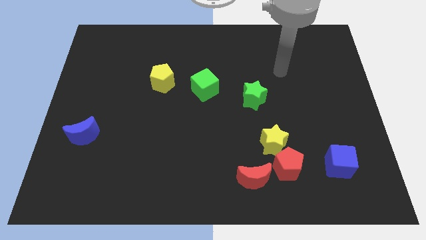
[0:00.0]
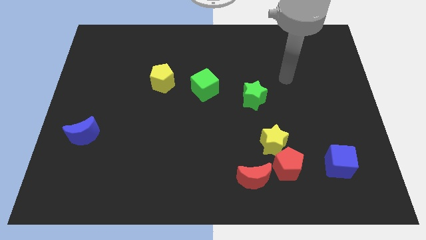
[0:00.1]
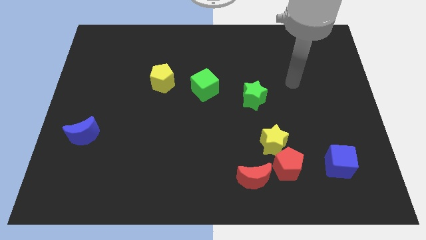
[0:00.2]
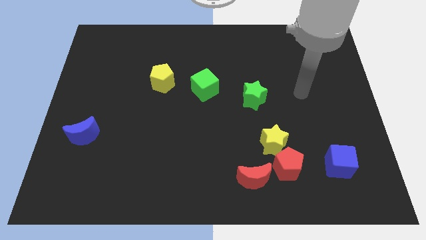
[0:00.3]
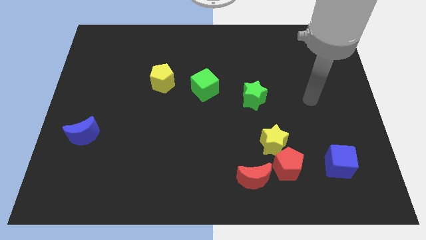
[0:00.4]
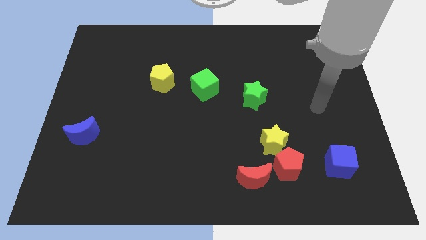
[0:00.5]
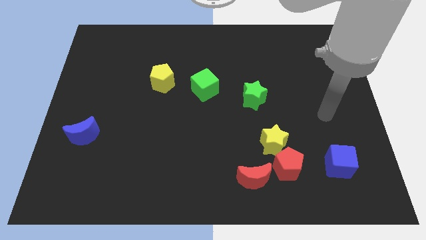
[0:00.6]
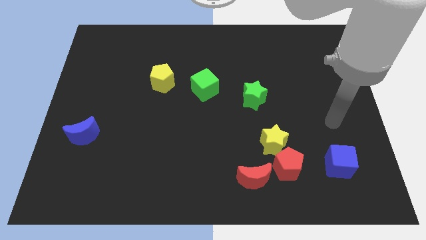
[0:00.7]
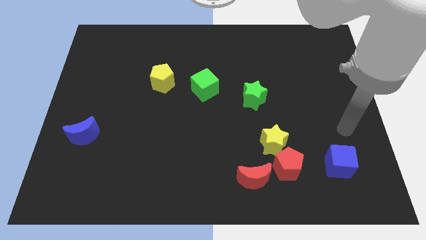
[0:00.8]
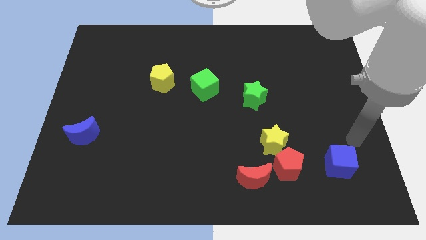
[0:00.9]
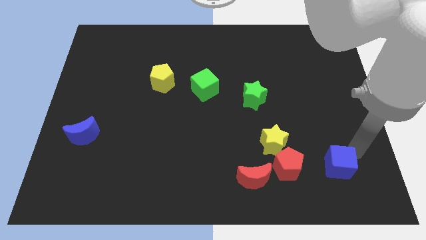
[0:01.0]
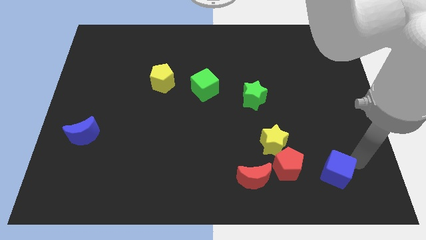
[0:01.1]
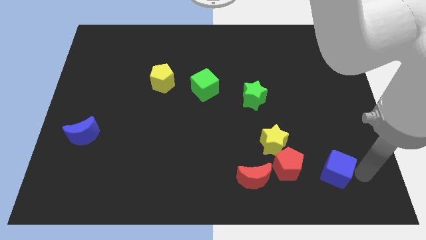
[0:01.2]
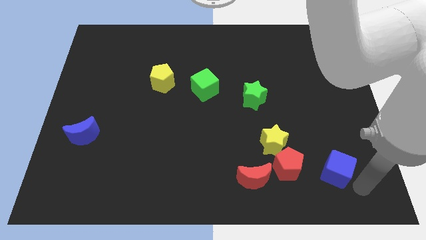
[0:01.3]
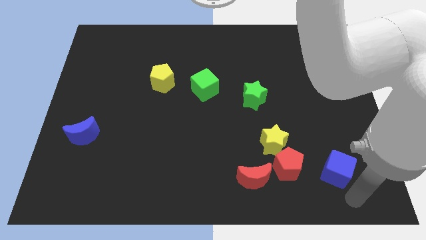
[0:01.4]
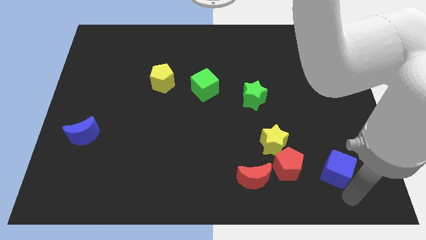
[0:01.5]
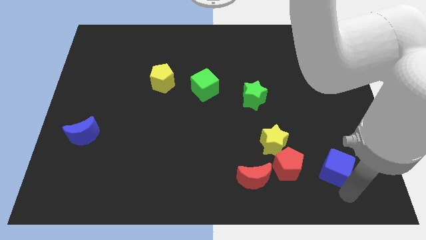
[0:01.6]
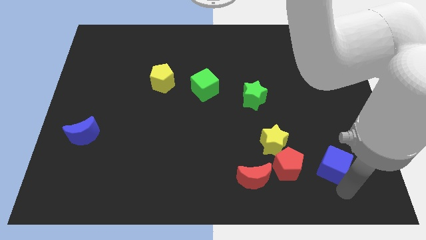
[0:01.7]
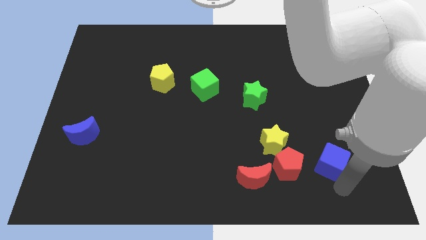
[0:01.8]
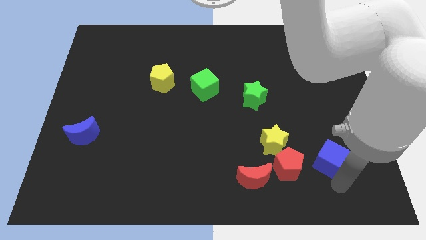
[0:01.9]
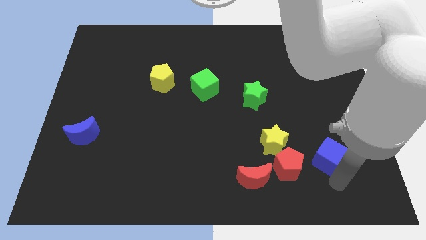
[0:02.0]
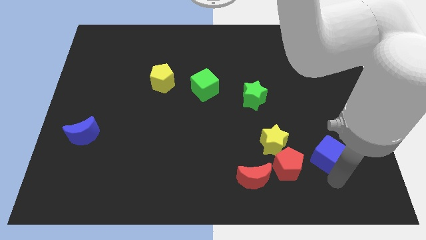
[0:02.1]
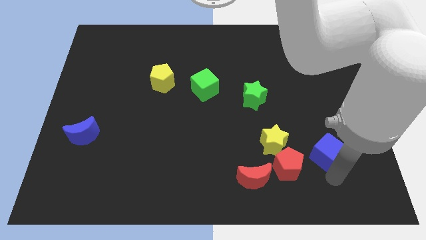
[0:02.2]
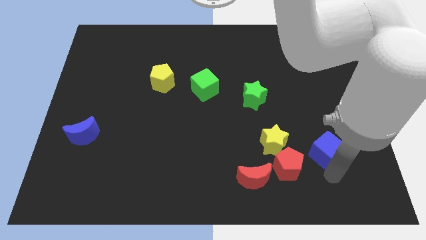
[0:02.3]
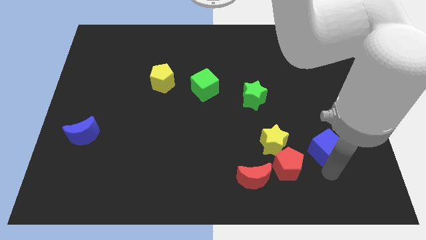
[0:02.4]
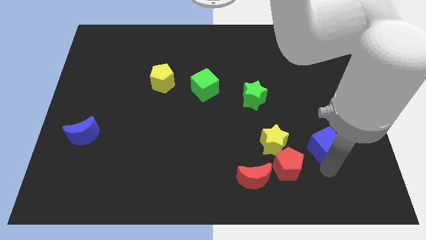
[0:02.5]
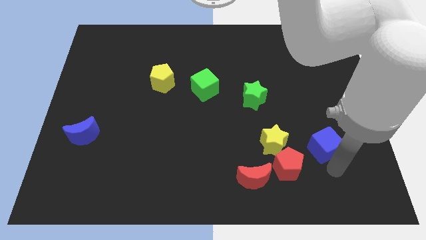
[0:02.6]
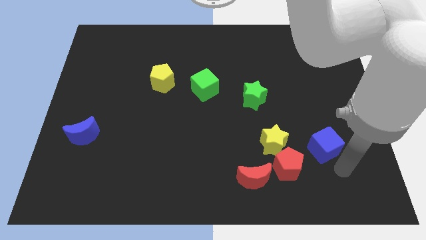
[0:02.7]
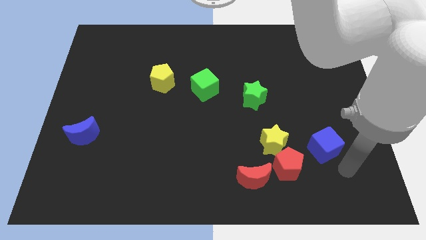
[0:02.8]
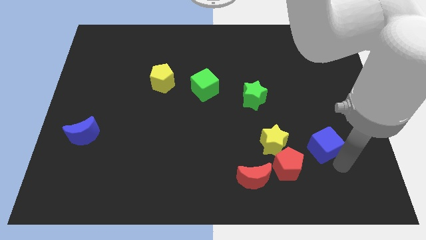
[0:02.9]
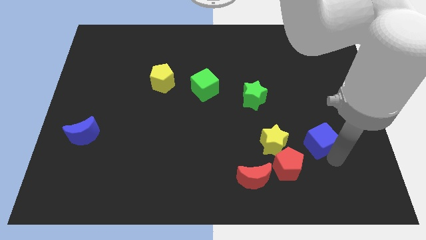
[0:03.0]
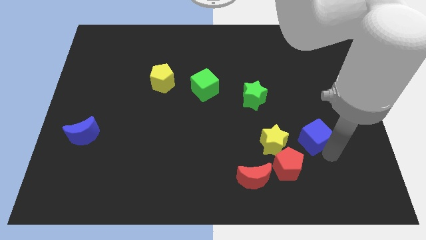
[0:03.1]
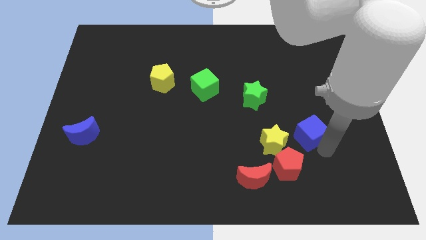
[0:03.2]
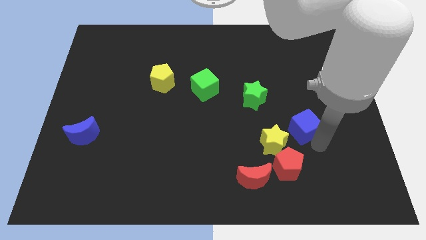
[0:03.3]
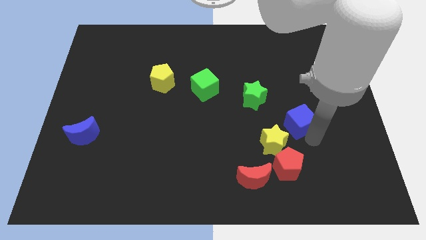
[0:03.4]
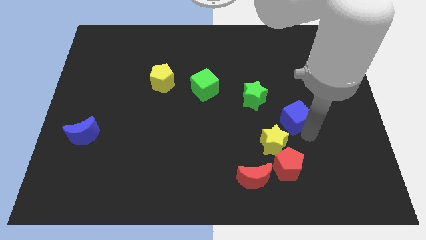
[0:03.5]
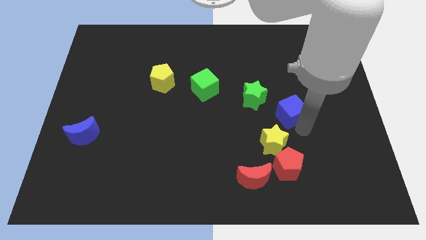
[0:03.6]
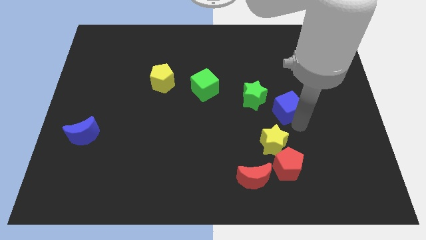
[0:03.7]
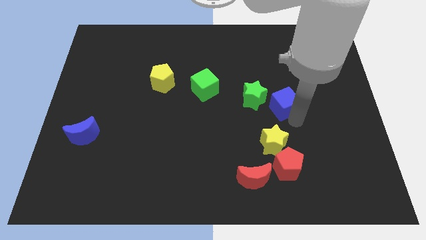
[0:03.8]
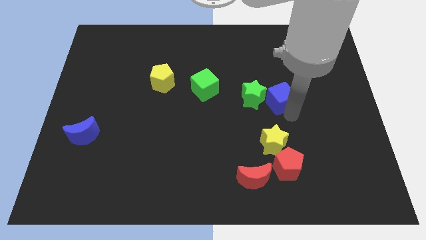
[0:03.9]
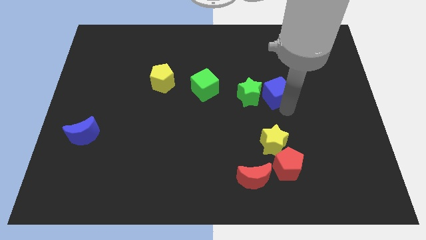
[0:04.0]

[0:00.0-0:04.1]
slide the blue cube up and left diagonally

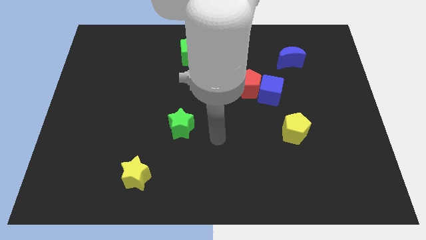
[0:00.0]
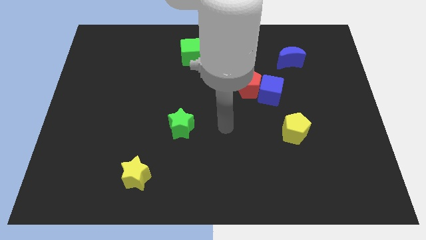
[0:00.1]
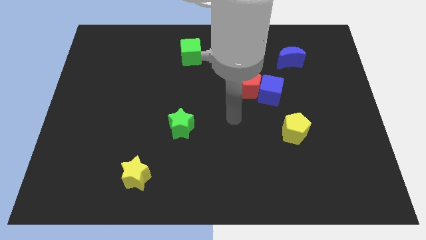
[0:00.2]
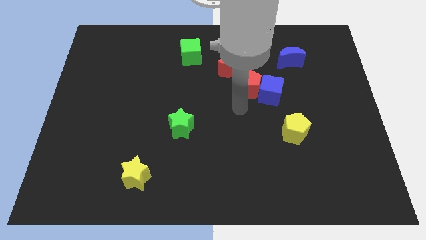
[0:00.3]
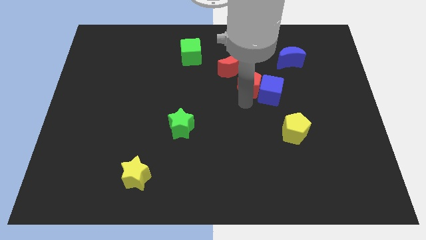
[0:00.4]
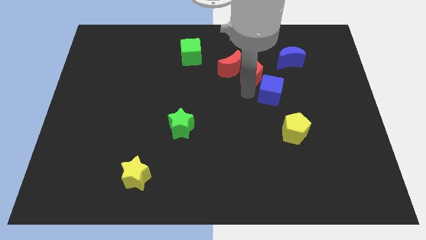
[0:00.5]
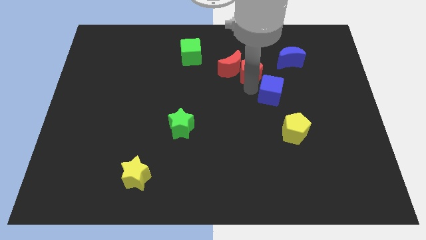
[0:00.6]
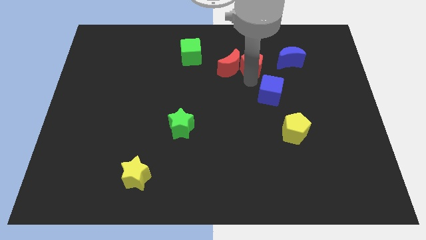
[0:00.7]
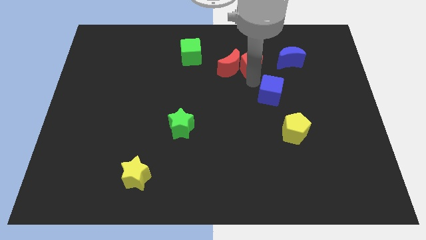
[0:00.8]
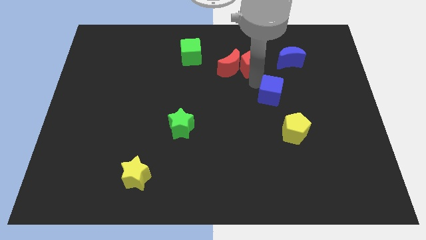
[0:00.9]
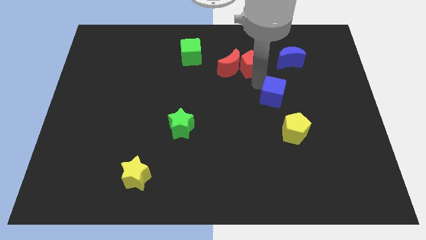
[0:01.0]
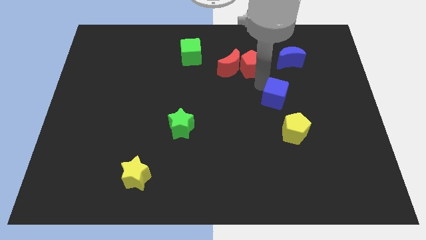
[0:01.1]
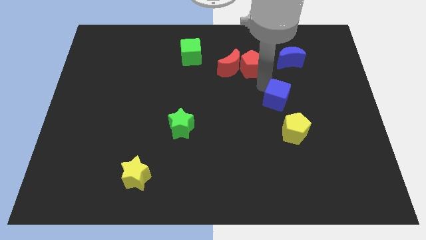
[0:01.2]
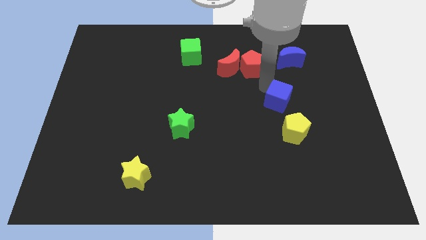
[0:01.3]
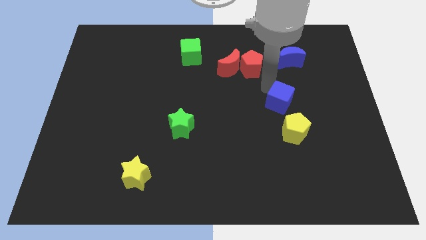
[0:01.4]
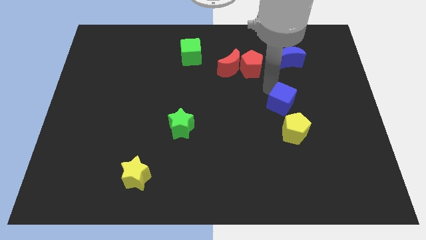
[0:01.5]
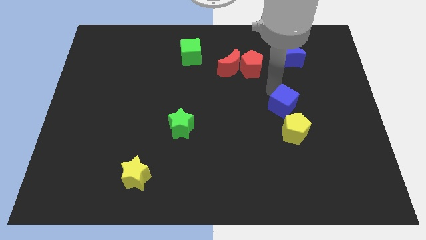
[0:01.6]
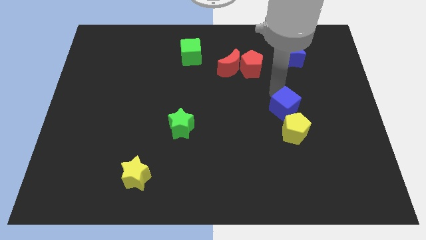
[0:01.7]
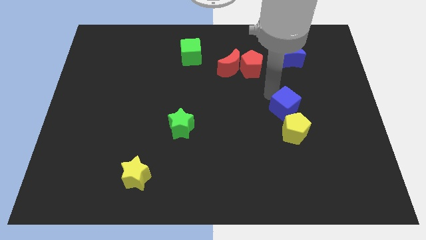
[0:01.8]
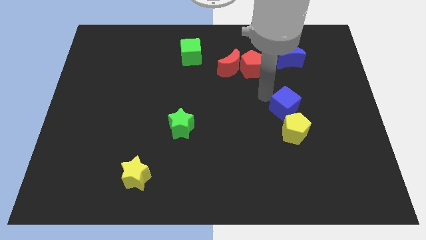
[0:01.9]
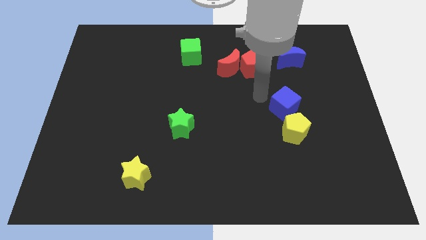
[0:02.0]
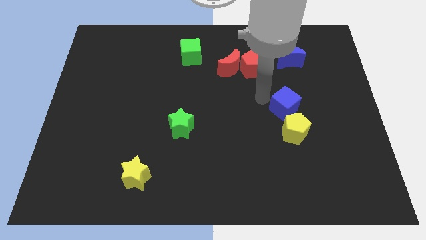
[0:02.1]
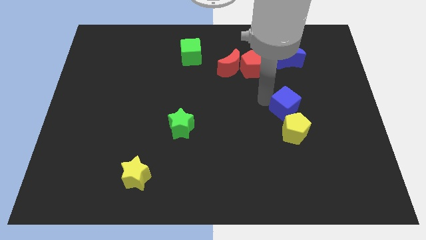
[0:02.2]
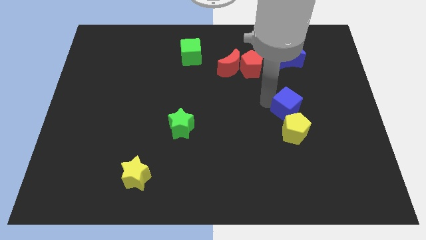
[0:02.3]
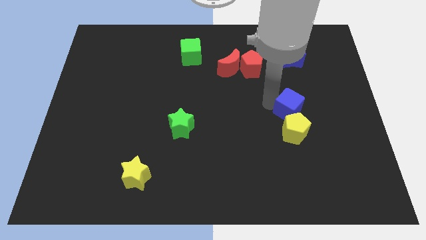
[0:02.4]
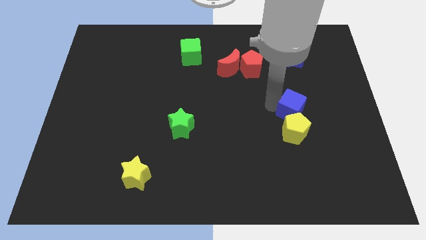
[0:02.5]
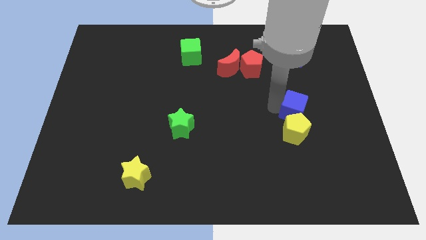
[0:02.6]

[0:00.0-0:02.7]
slightly move the blue cube diagonally down and right

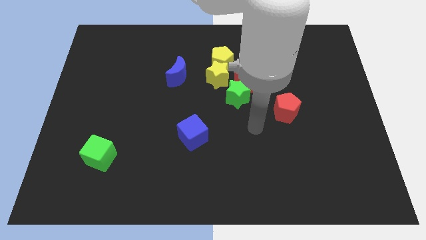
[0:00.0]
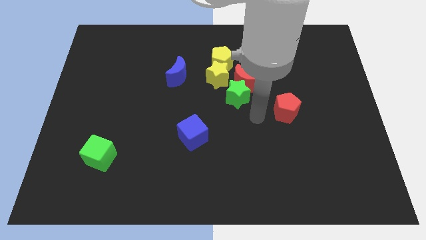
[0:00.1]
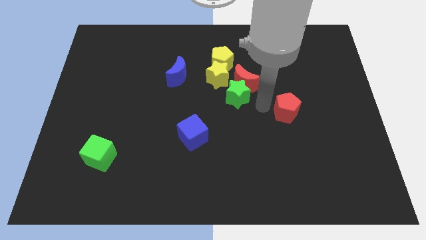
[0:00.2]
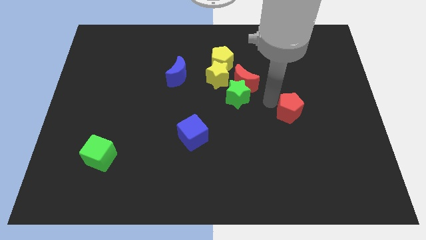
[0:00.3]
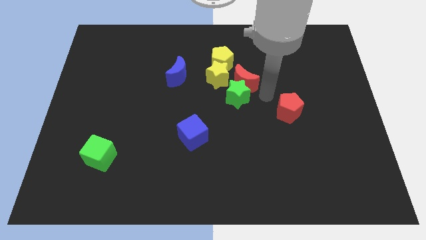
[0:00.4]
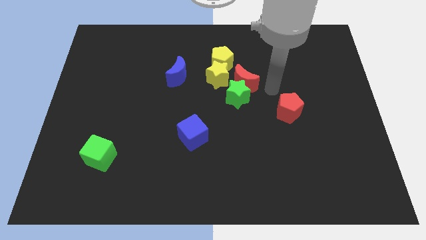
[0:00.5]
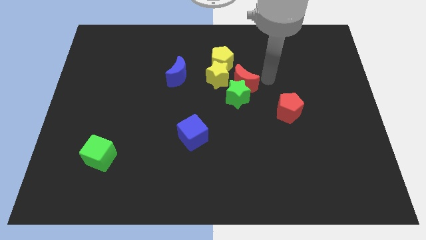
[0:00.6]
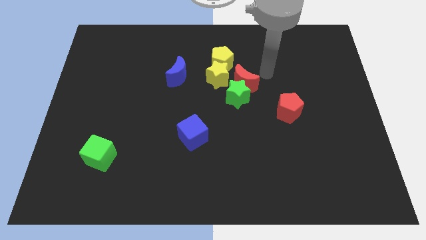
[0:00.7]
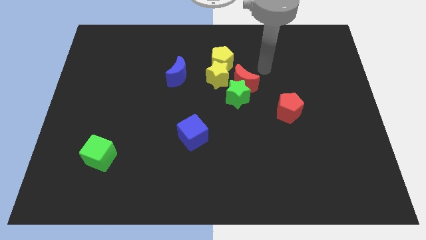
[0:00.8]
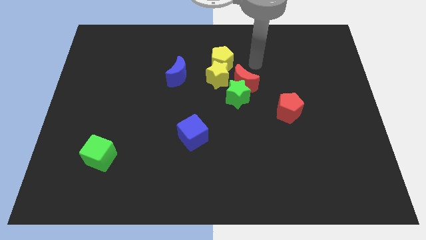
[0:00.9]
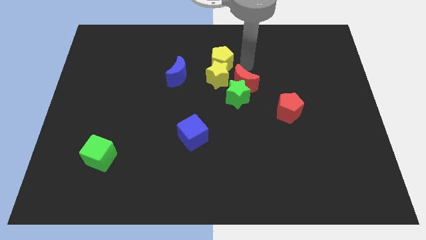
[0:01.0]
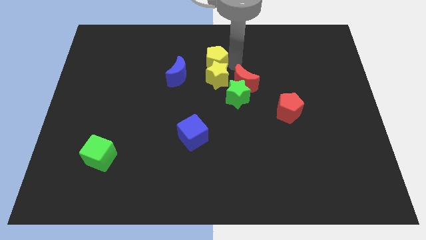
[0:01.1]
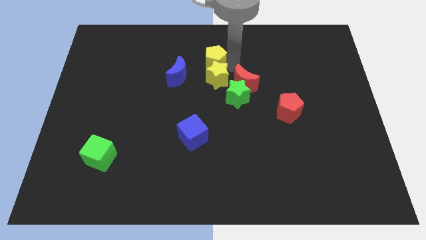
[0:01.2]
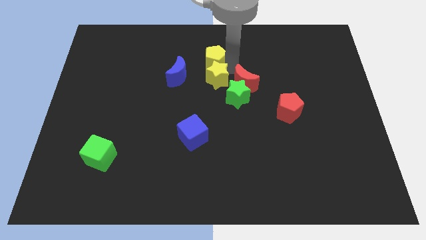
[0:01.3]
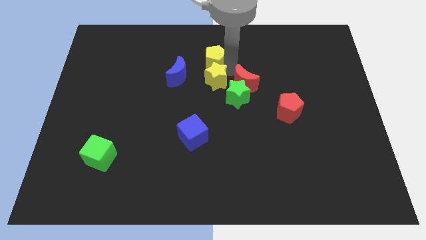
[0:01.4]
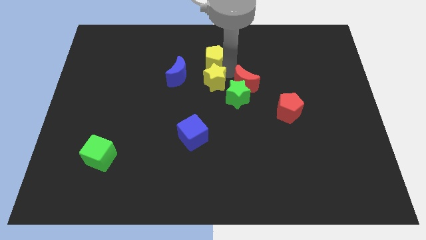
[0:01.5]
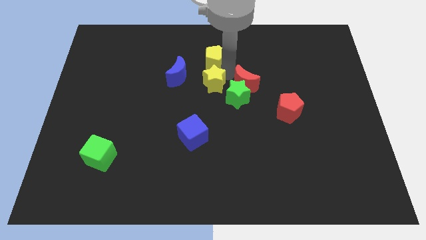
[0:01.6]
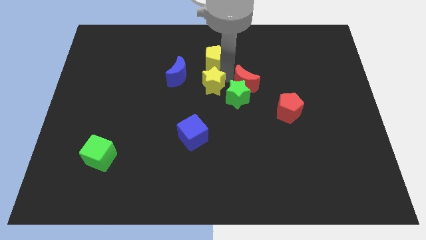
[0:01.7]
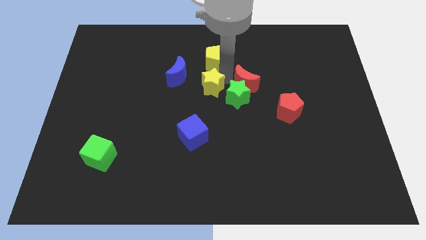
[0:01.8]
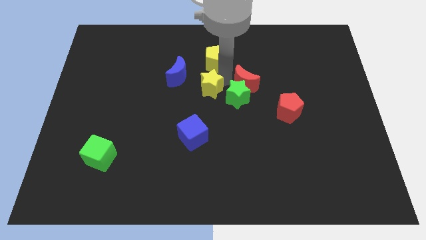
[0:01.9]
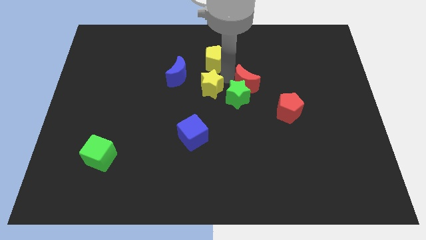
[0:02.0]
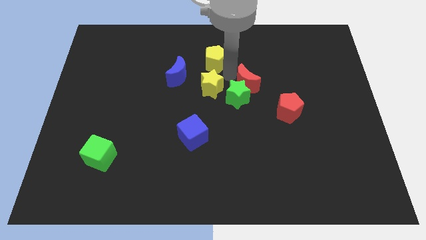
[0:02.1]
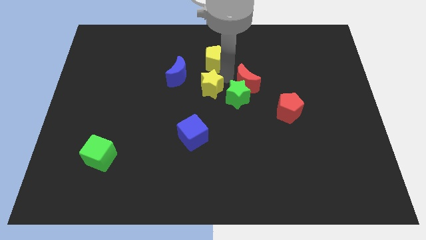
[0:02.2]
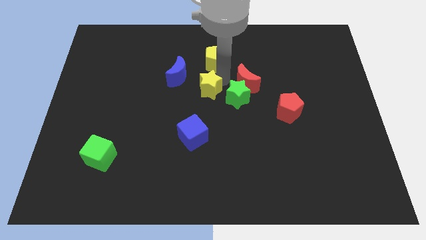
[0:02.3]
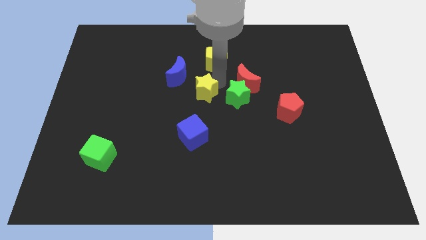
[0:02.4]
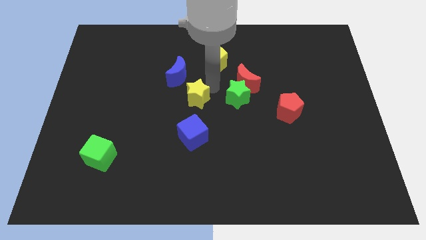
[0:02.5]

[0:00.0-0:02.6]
slightly push the yellow star downwards and left diagonally
